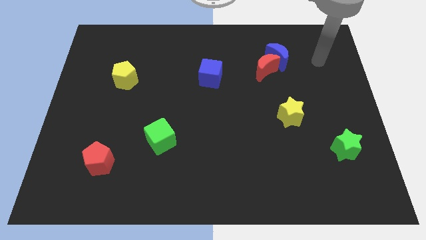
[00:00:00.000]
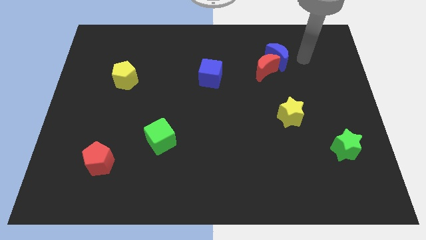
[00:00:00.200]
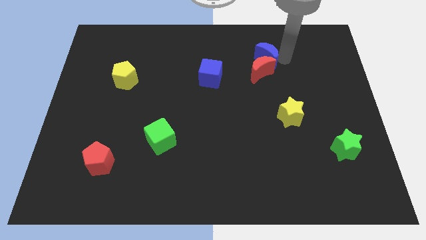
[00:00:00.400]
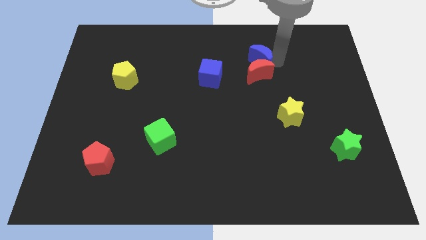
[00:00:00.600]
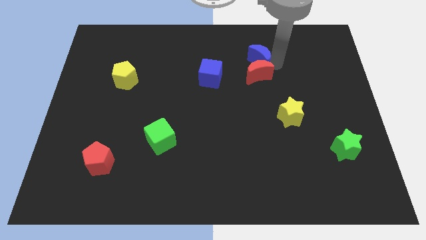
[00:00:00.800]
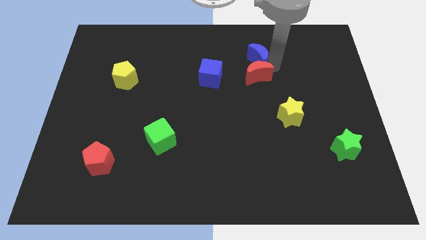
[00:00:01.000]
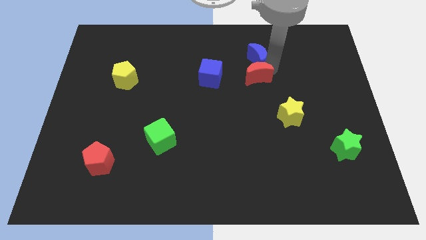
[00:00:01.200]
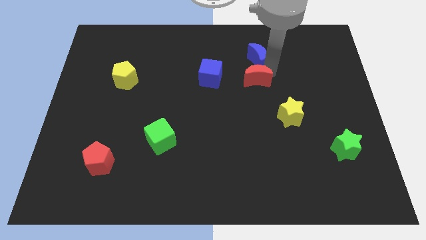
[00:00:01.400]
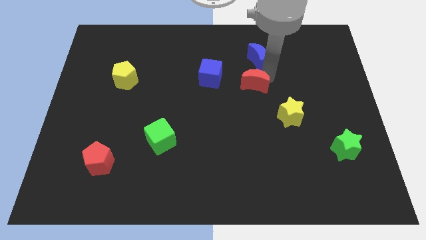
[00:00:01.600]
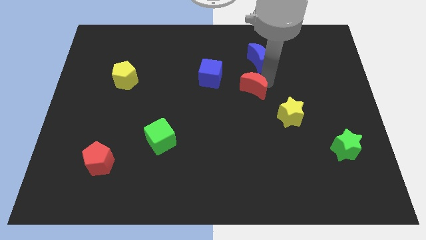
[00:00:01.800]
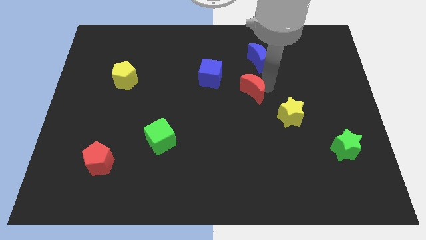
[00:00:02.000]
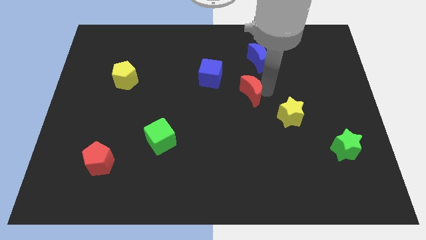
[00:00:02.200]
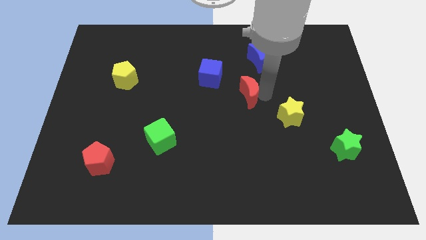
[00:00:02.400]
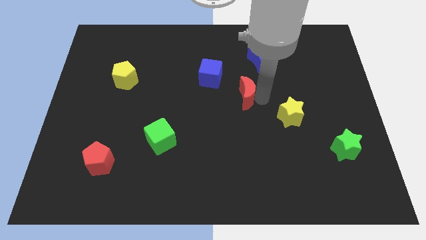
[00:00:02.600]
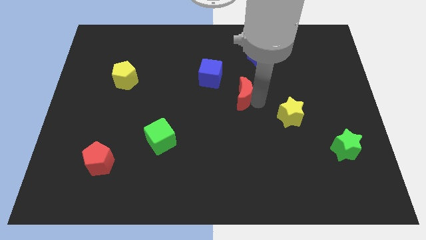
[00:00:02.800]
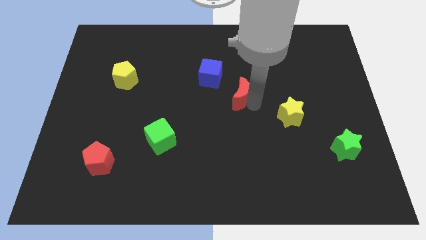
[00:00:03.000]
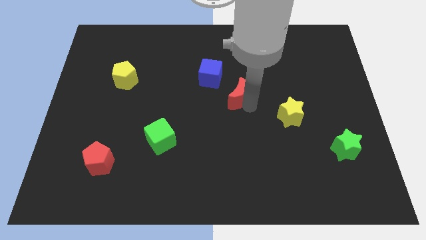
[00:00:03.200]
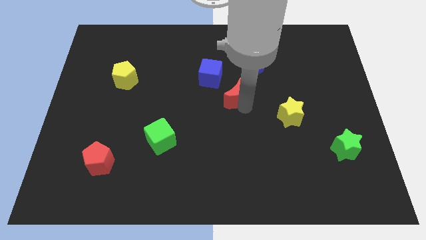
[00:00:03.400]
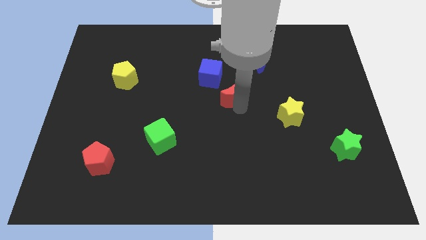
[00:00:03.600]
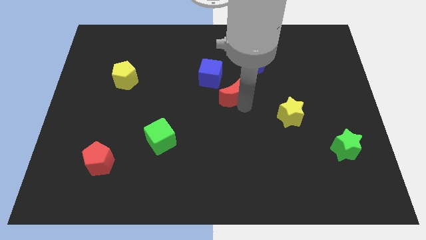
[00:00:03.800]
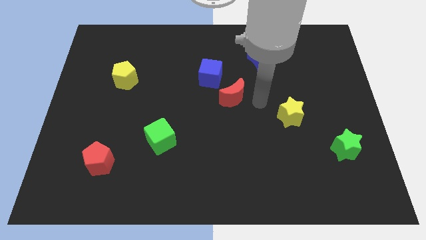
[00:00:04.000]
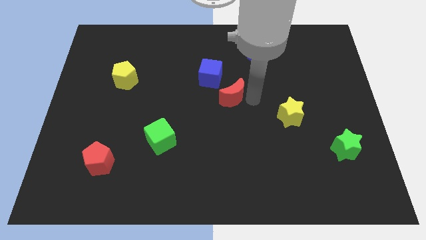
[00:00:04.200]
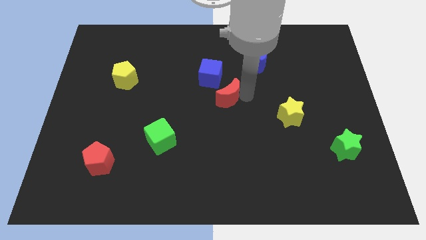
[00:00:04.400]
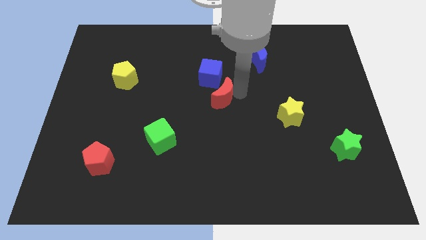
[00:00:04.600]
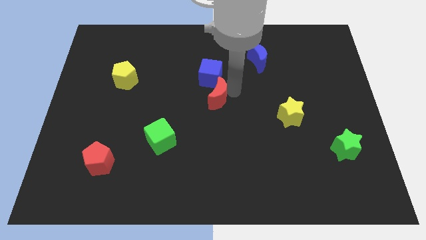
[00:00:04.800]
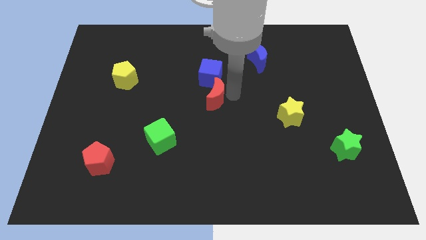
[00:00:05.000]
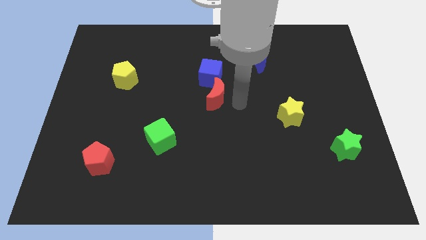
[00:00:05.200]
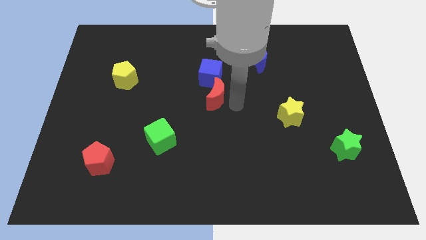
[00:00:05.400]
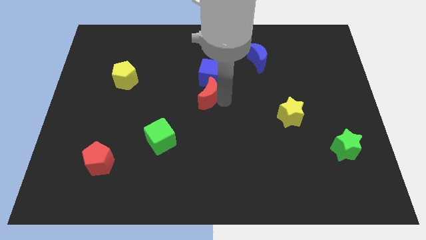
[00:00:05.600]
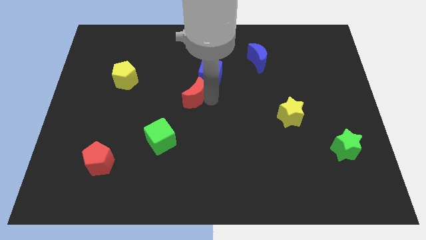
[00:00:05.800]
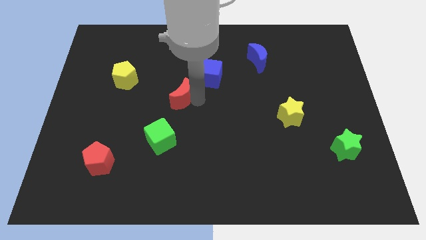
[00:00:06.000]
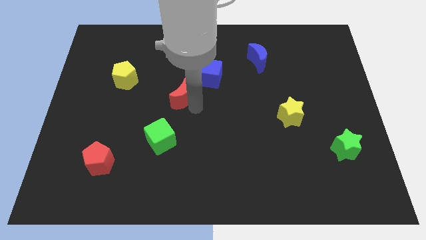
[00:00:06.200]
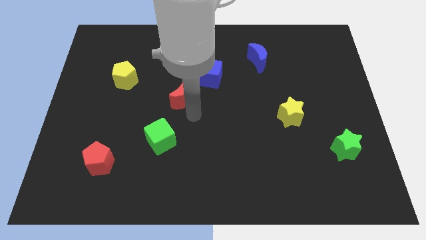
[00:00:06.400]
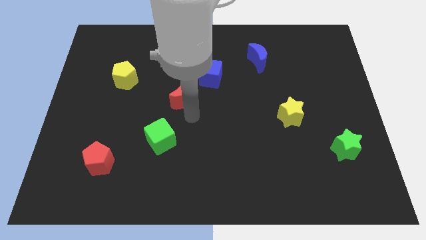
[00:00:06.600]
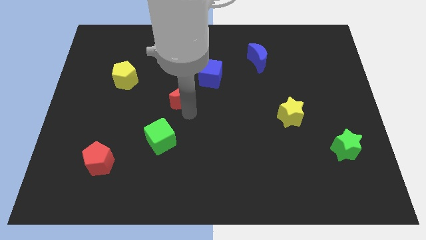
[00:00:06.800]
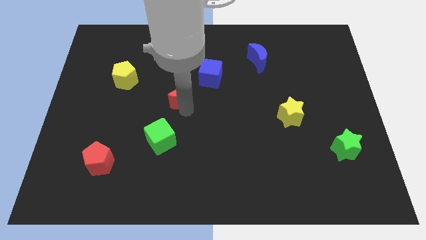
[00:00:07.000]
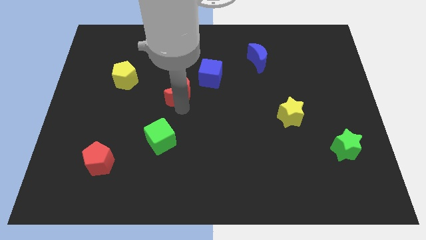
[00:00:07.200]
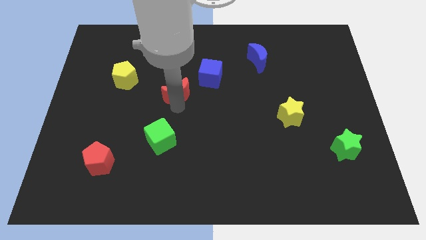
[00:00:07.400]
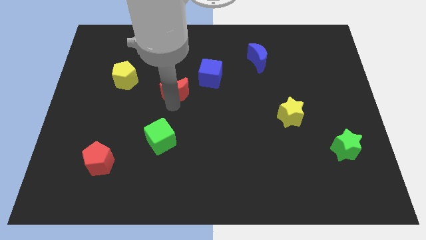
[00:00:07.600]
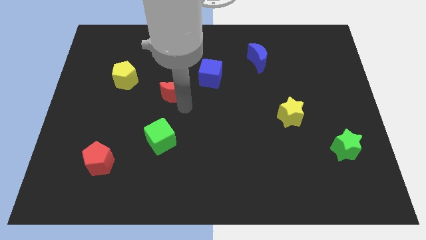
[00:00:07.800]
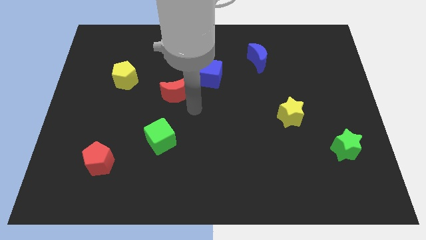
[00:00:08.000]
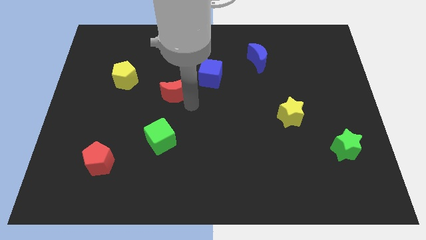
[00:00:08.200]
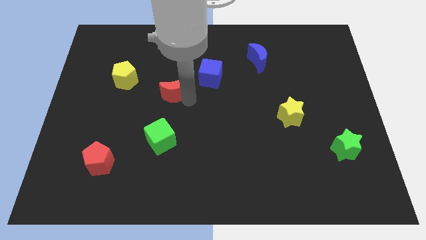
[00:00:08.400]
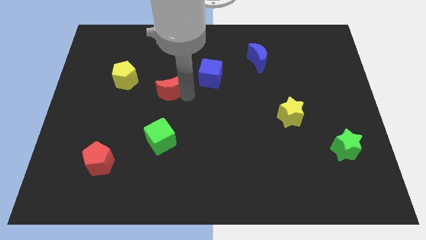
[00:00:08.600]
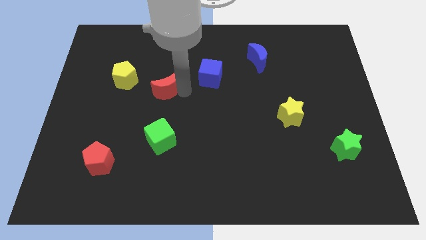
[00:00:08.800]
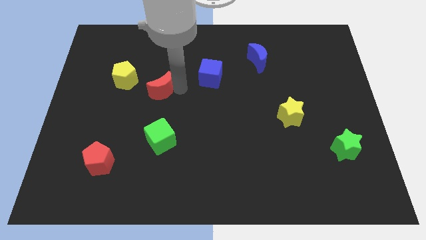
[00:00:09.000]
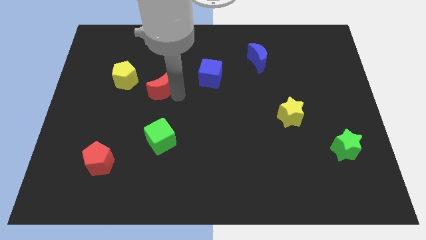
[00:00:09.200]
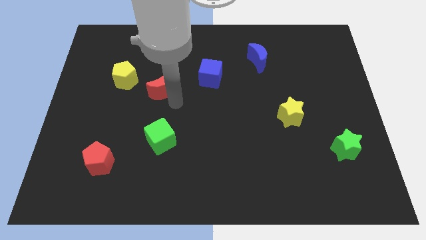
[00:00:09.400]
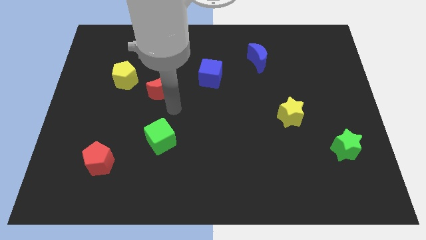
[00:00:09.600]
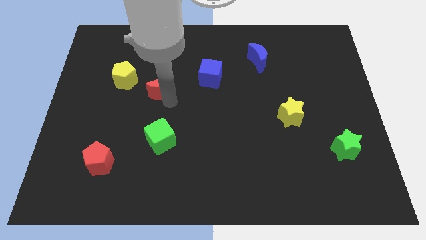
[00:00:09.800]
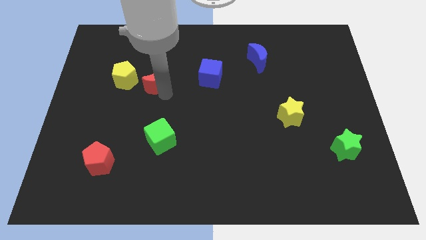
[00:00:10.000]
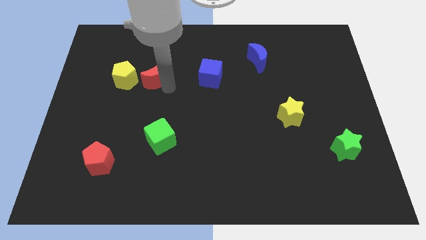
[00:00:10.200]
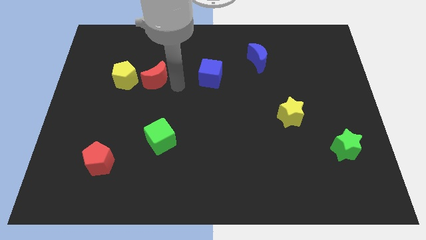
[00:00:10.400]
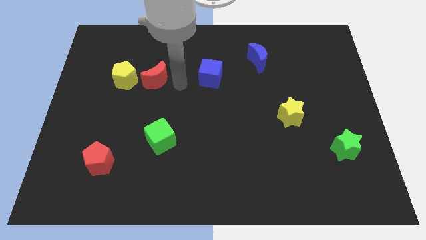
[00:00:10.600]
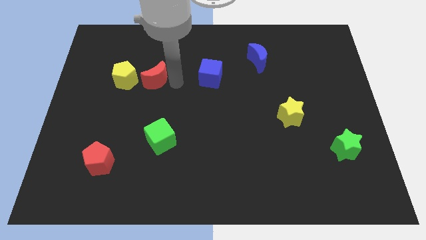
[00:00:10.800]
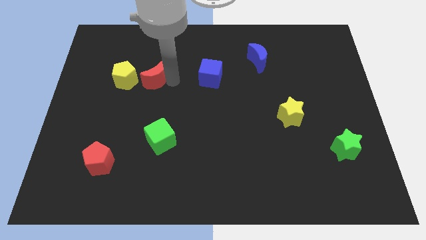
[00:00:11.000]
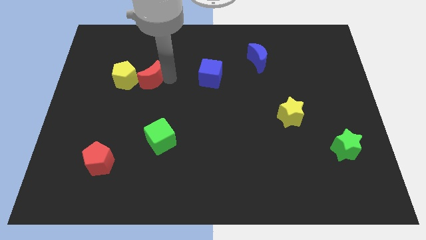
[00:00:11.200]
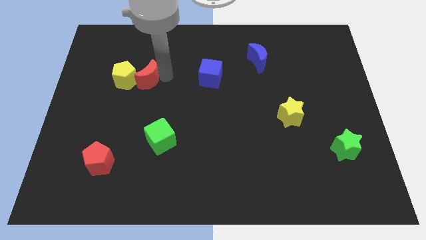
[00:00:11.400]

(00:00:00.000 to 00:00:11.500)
move the red moon to the yellow pentagon

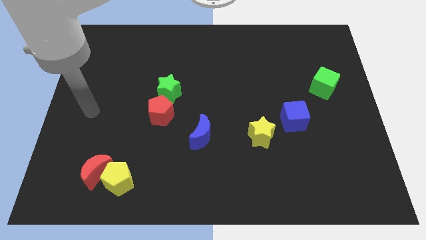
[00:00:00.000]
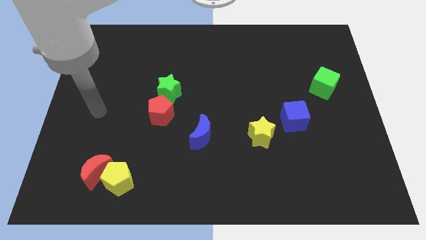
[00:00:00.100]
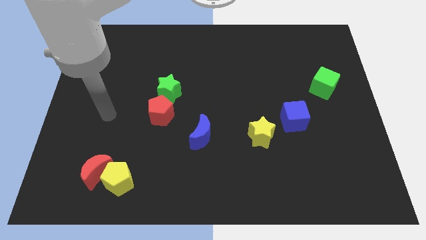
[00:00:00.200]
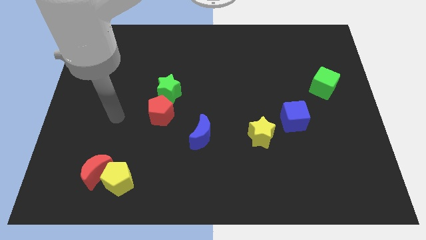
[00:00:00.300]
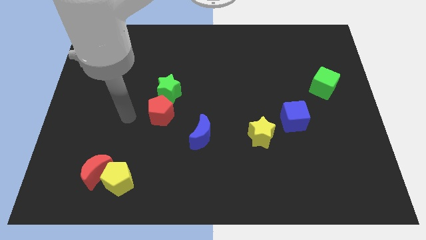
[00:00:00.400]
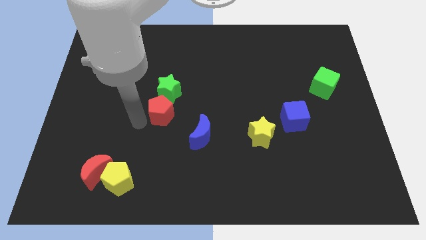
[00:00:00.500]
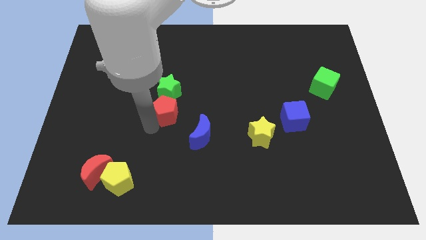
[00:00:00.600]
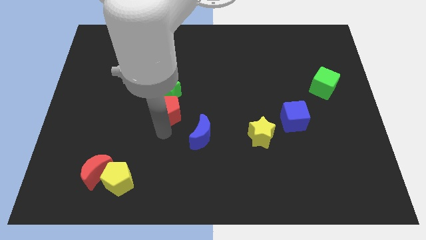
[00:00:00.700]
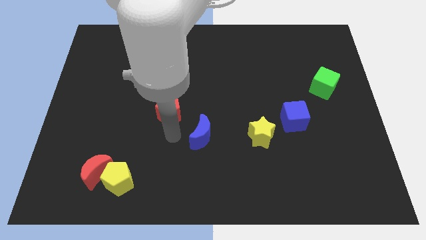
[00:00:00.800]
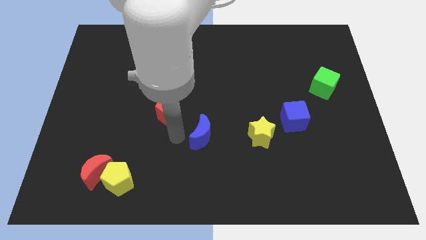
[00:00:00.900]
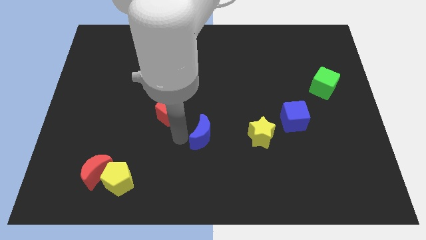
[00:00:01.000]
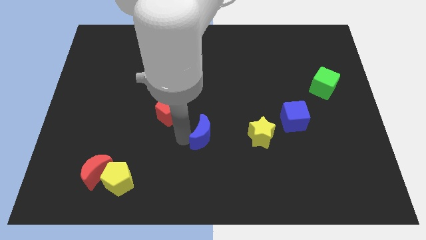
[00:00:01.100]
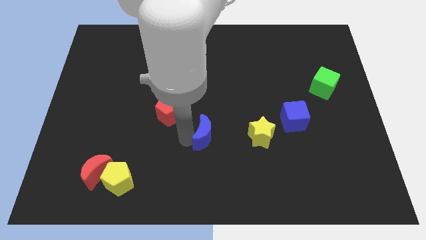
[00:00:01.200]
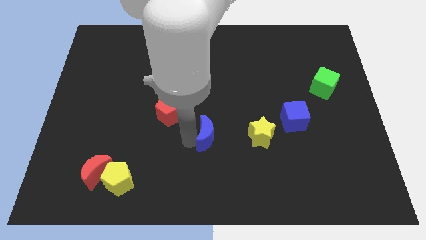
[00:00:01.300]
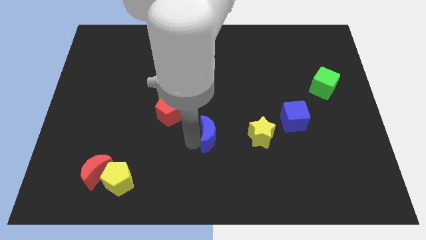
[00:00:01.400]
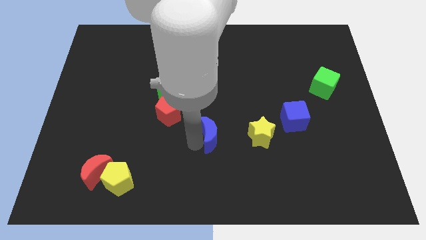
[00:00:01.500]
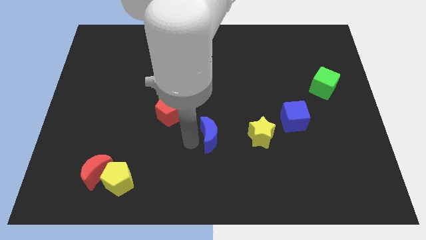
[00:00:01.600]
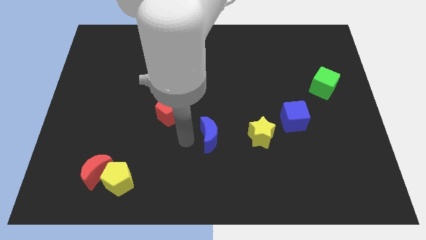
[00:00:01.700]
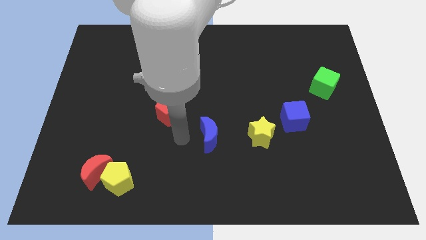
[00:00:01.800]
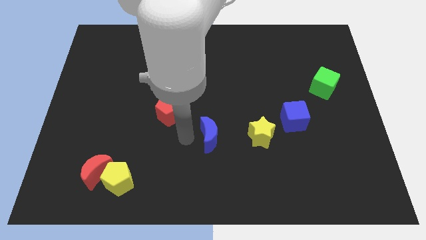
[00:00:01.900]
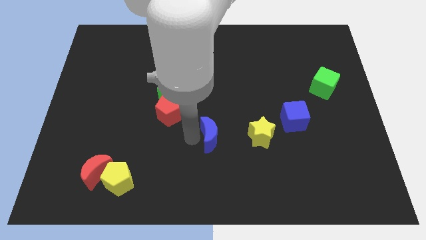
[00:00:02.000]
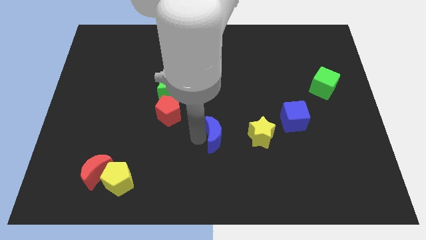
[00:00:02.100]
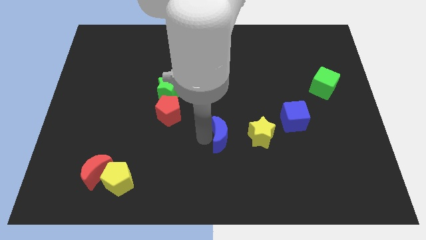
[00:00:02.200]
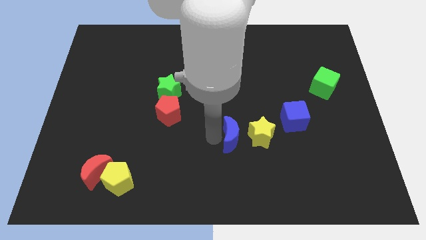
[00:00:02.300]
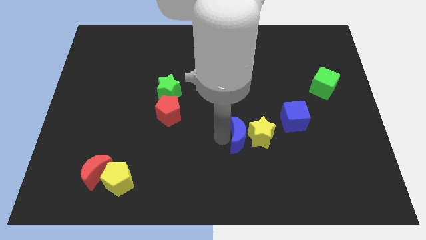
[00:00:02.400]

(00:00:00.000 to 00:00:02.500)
slide the blue moon towards the yellow star

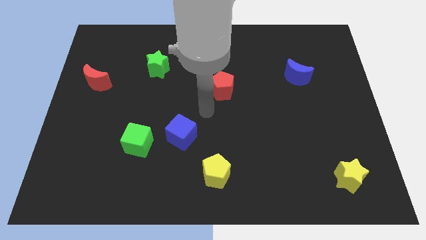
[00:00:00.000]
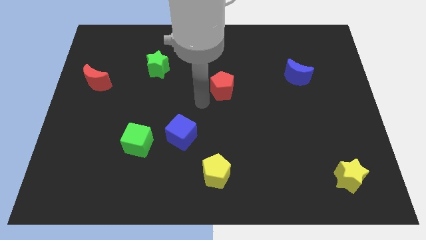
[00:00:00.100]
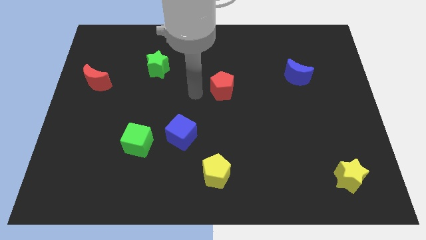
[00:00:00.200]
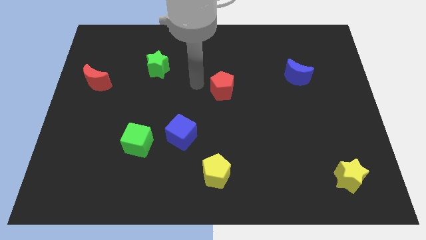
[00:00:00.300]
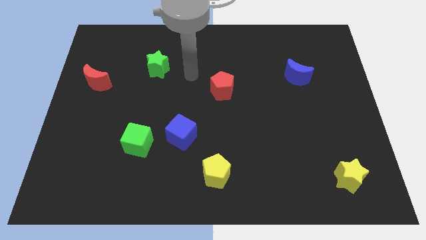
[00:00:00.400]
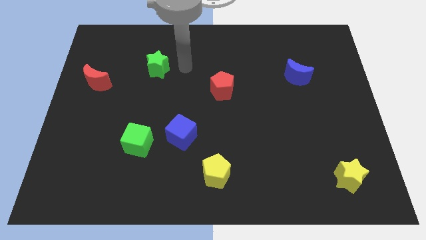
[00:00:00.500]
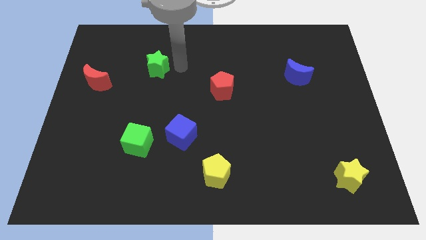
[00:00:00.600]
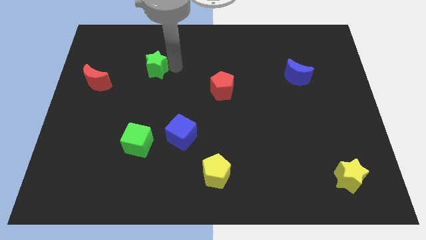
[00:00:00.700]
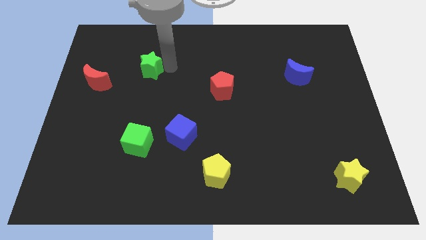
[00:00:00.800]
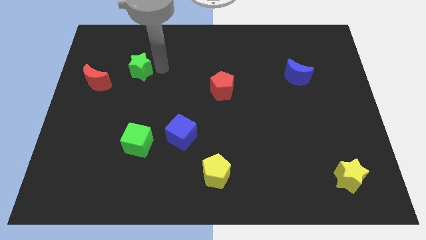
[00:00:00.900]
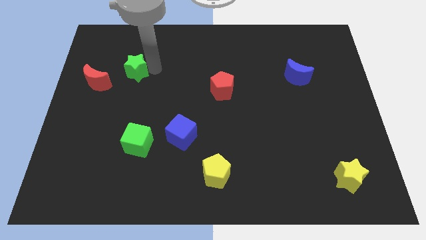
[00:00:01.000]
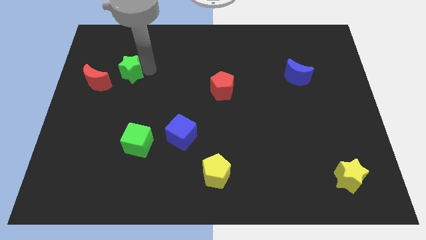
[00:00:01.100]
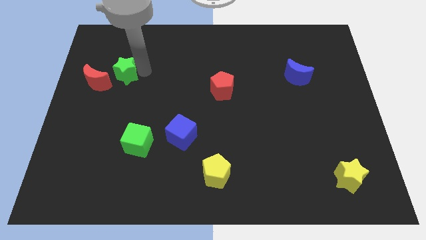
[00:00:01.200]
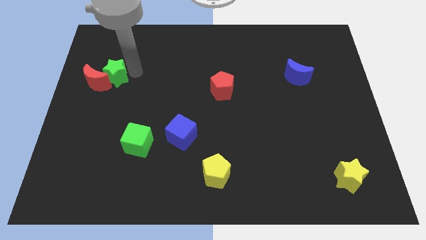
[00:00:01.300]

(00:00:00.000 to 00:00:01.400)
push the green star to the red moon
